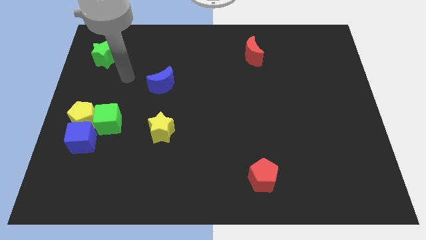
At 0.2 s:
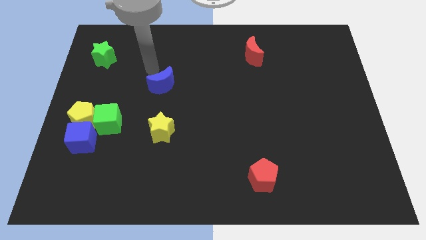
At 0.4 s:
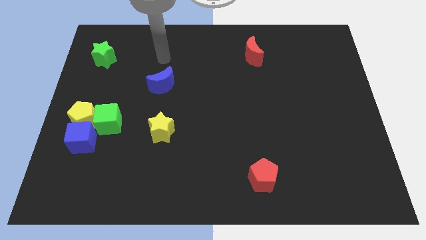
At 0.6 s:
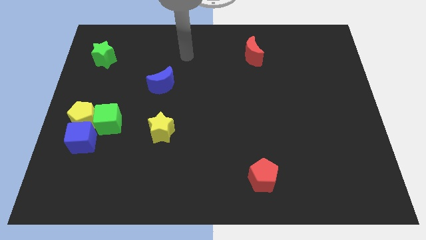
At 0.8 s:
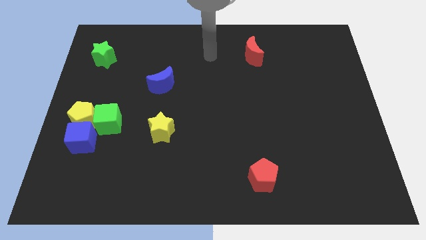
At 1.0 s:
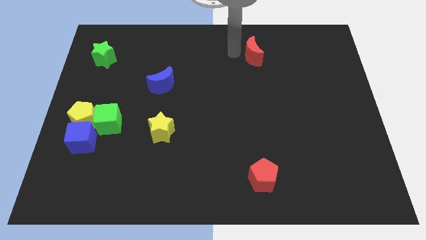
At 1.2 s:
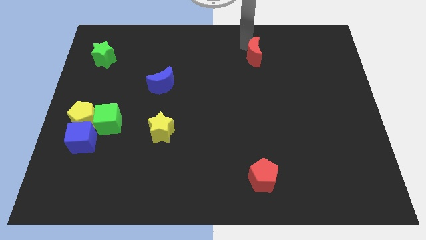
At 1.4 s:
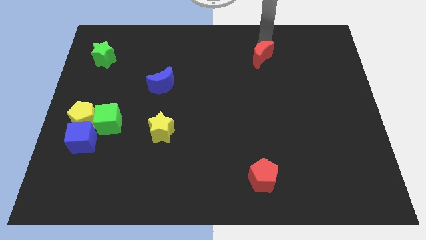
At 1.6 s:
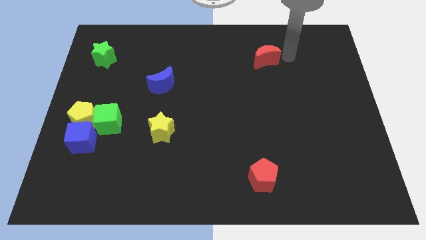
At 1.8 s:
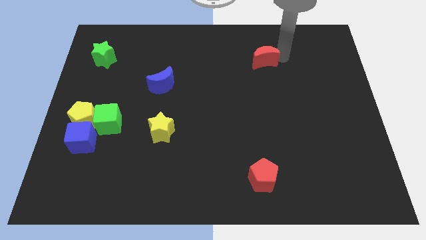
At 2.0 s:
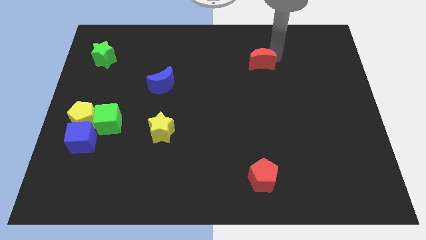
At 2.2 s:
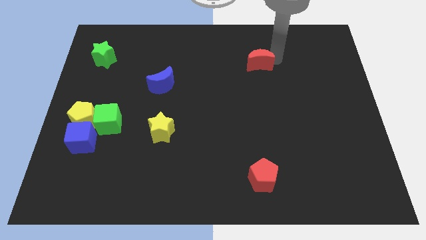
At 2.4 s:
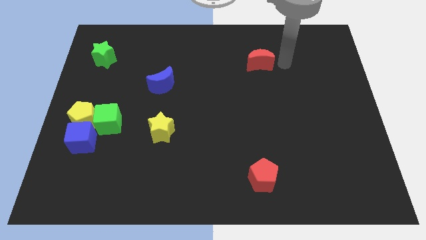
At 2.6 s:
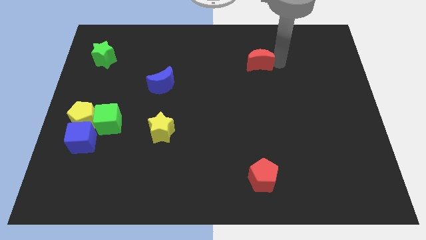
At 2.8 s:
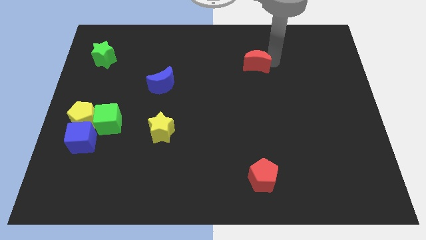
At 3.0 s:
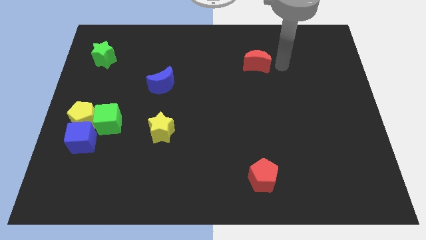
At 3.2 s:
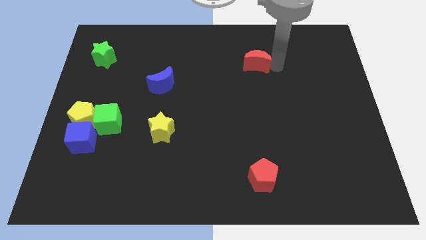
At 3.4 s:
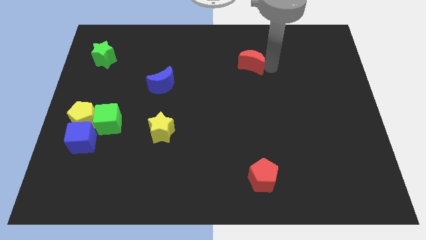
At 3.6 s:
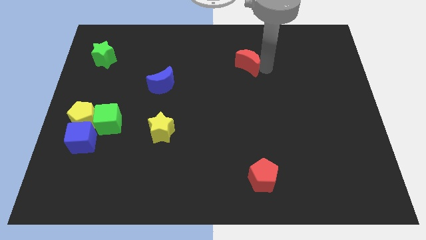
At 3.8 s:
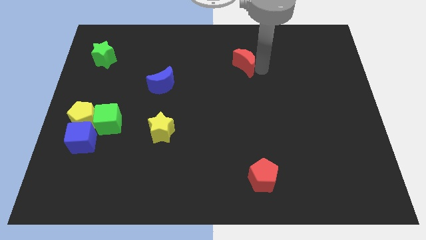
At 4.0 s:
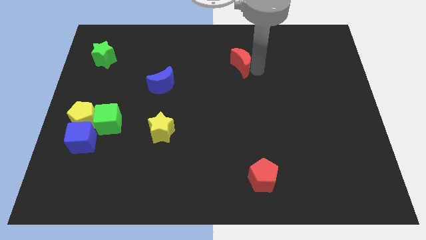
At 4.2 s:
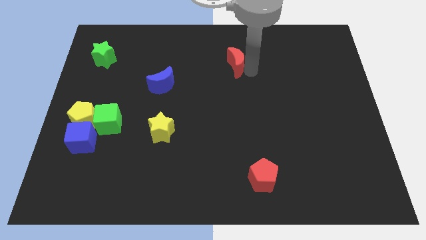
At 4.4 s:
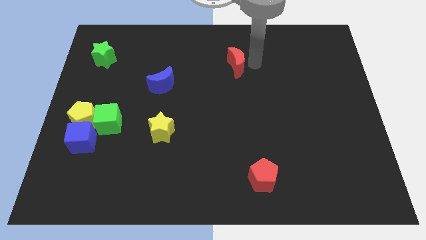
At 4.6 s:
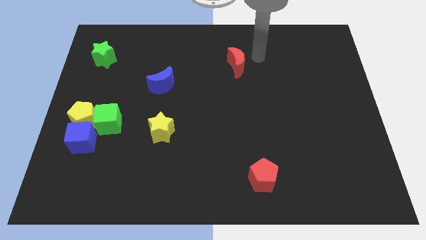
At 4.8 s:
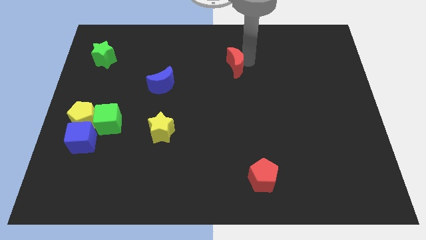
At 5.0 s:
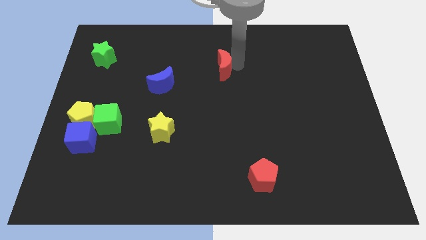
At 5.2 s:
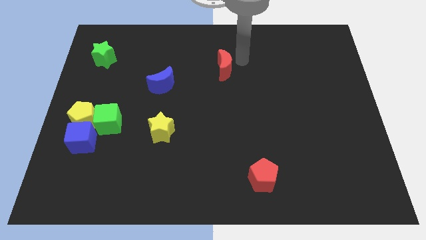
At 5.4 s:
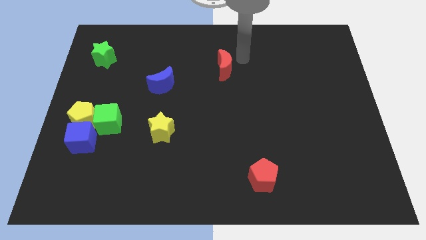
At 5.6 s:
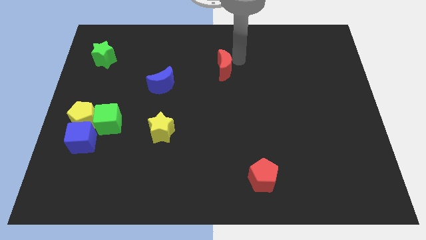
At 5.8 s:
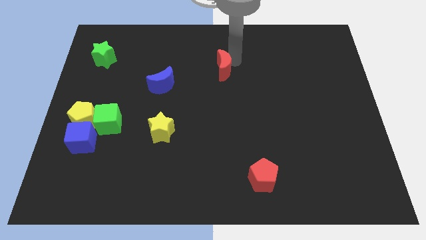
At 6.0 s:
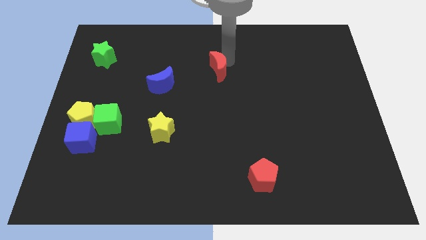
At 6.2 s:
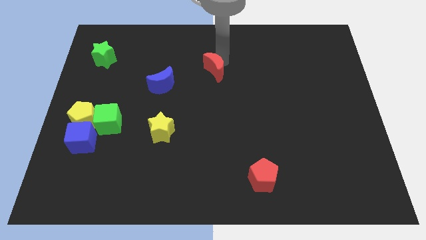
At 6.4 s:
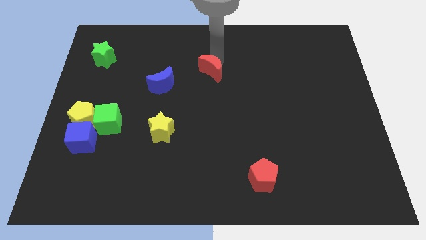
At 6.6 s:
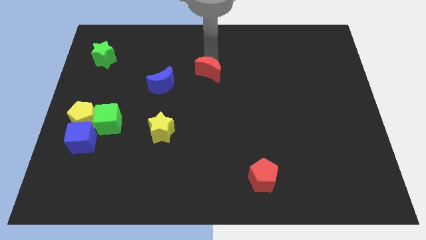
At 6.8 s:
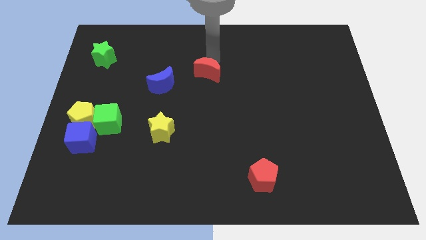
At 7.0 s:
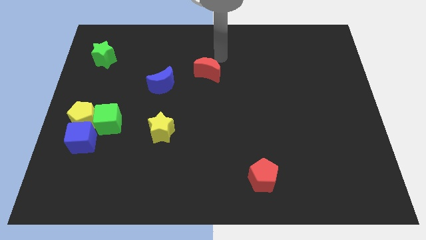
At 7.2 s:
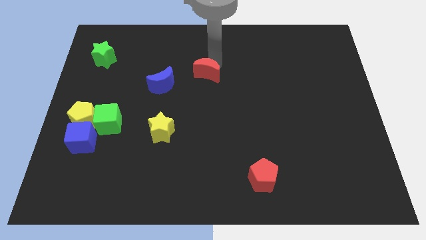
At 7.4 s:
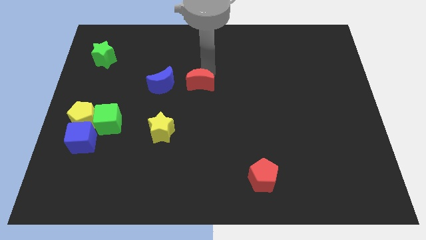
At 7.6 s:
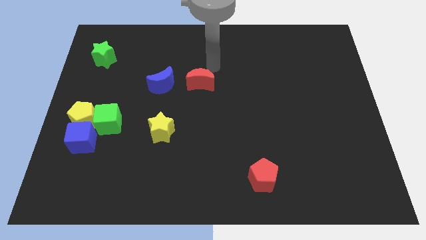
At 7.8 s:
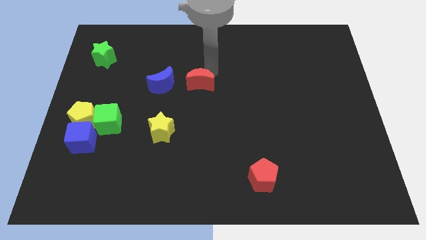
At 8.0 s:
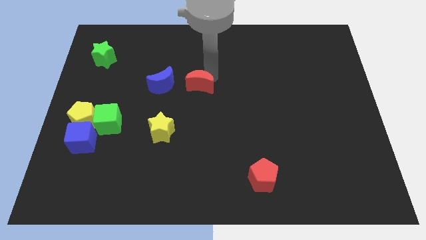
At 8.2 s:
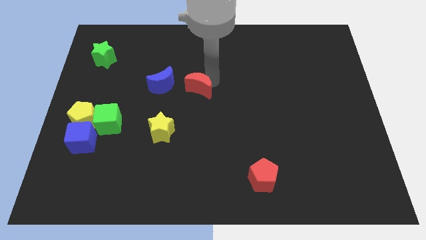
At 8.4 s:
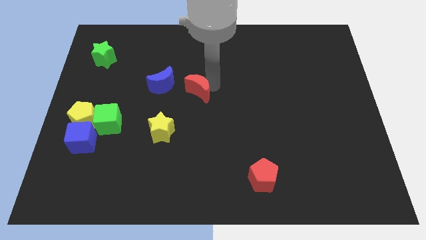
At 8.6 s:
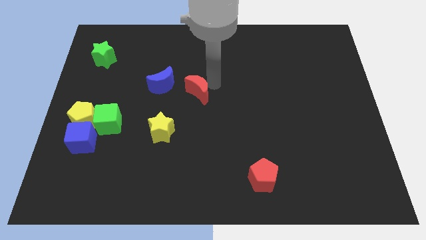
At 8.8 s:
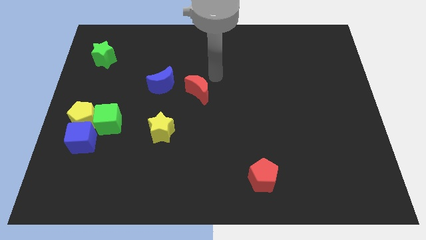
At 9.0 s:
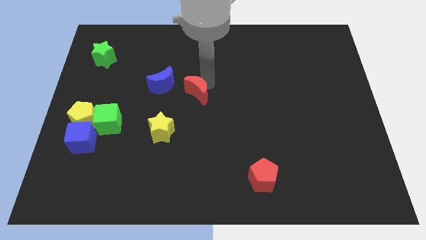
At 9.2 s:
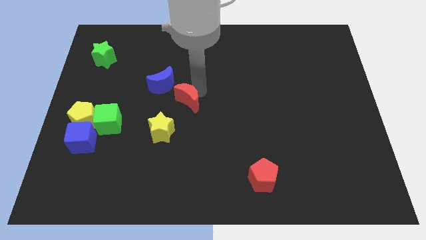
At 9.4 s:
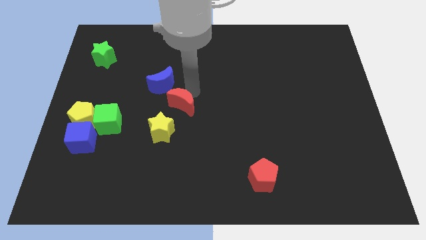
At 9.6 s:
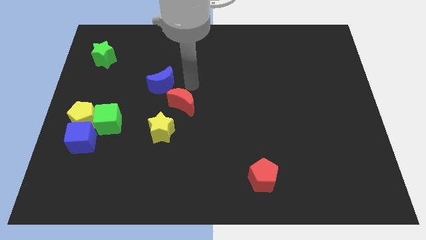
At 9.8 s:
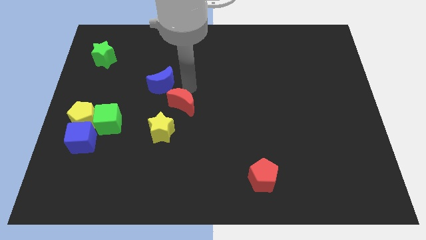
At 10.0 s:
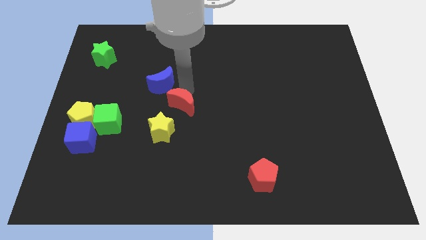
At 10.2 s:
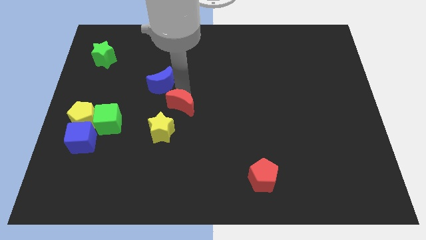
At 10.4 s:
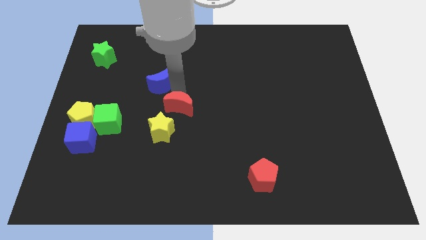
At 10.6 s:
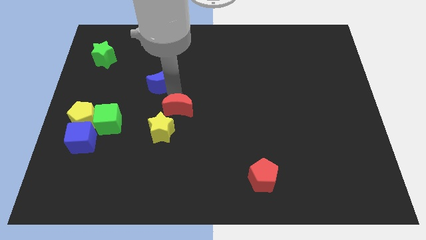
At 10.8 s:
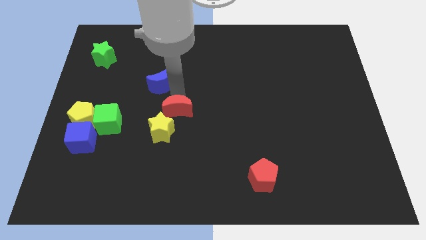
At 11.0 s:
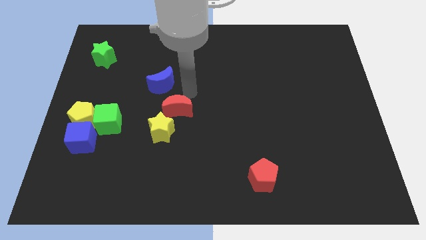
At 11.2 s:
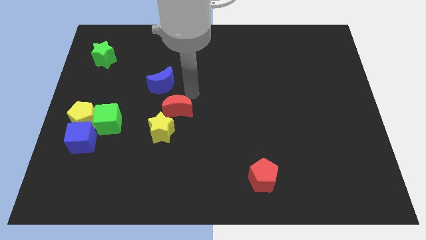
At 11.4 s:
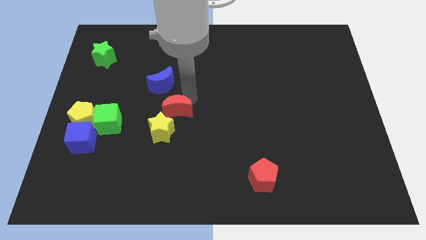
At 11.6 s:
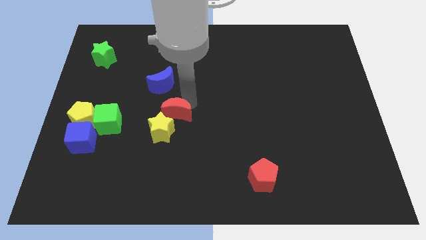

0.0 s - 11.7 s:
slide the red moon close to the yellow star

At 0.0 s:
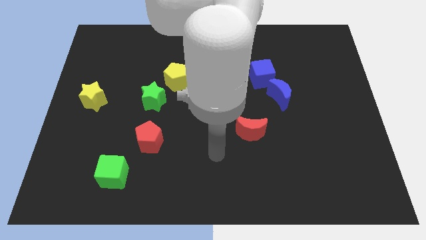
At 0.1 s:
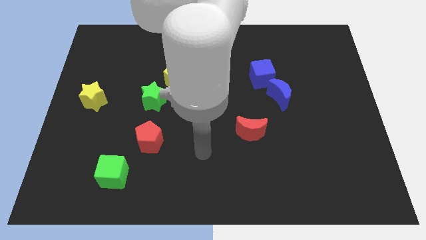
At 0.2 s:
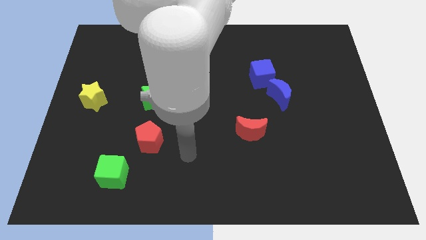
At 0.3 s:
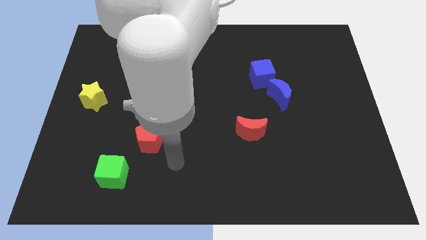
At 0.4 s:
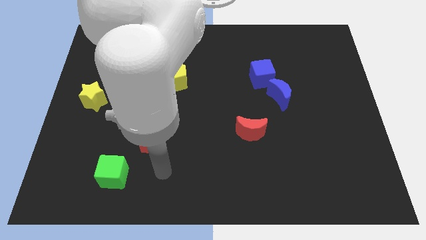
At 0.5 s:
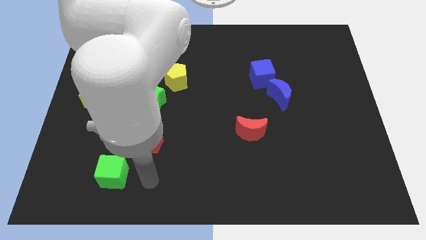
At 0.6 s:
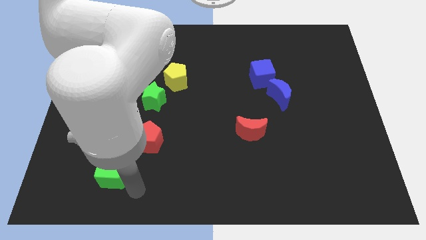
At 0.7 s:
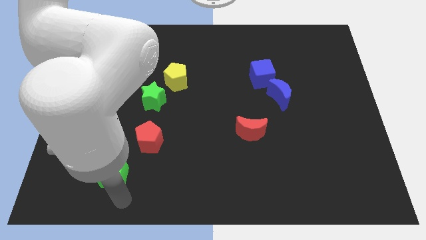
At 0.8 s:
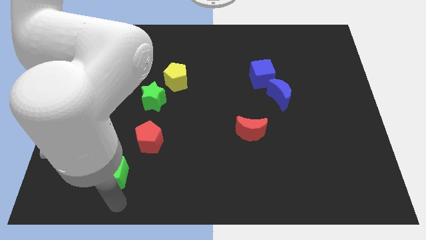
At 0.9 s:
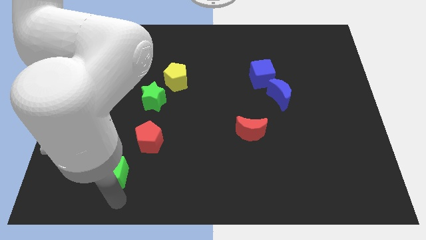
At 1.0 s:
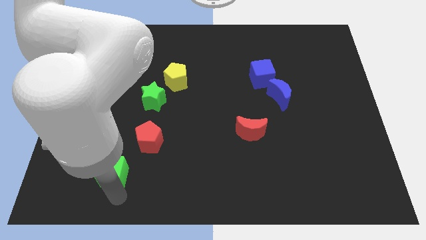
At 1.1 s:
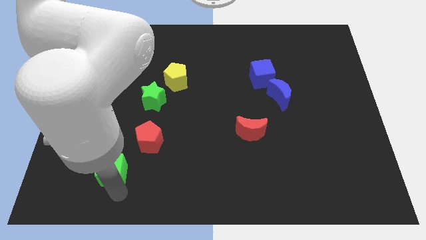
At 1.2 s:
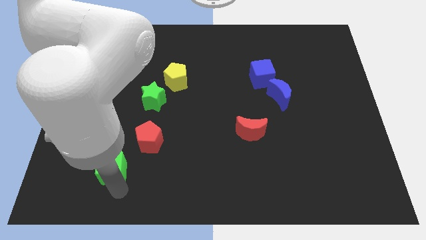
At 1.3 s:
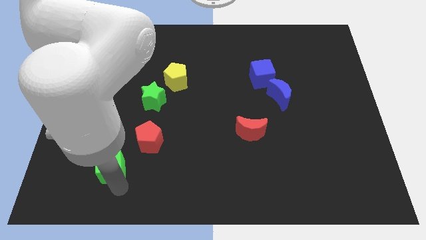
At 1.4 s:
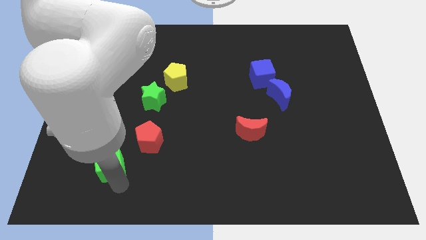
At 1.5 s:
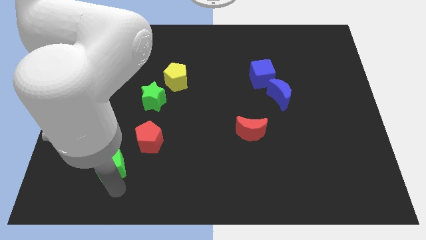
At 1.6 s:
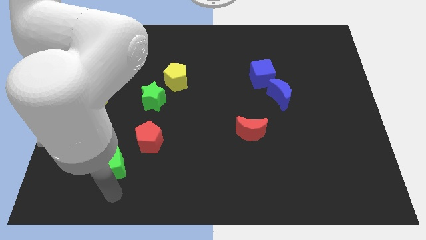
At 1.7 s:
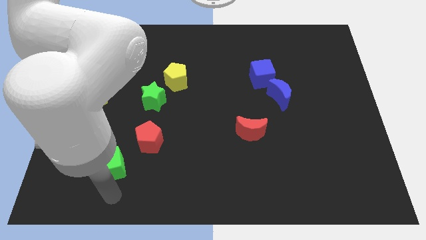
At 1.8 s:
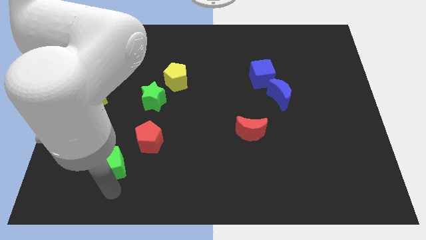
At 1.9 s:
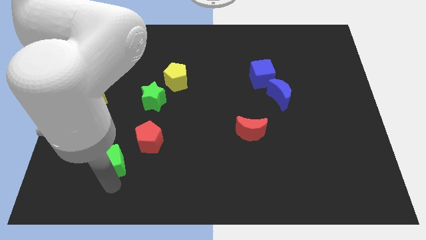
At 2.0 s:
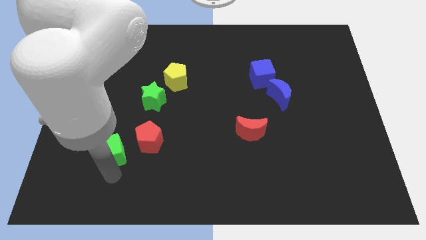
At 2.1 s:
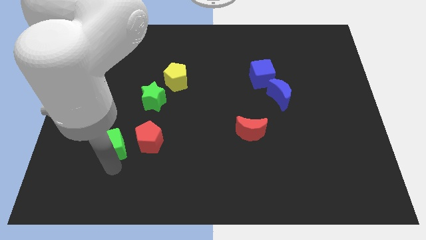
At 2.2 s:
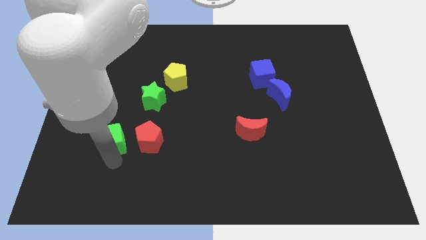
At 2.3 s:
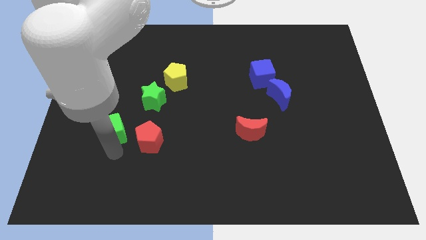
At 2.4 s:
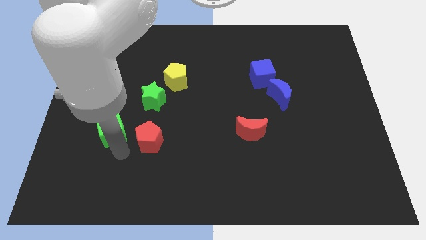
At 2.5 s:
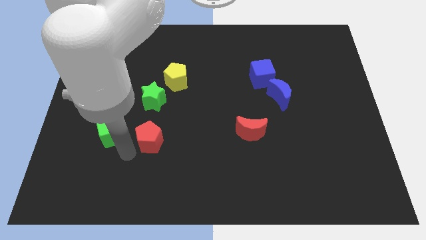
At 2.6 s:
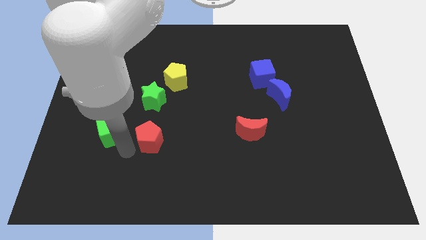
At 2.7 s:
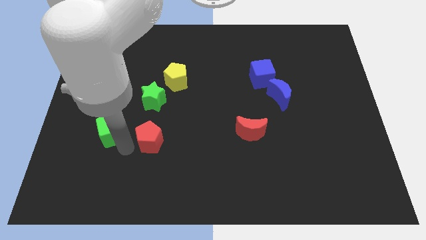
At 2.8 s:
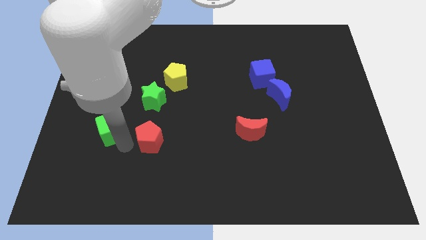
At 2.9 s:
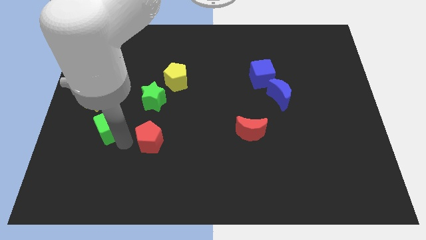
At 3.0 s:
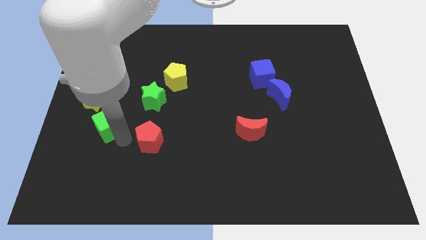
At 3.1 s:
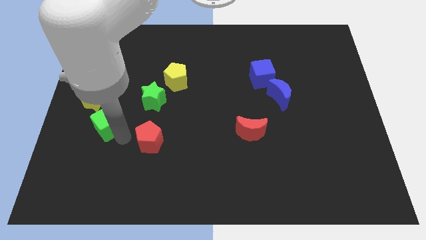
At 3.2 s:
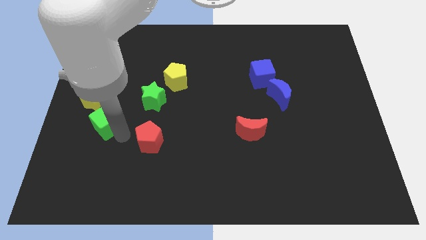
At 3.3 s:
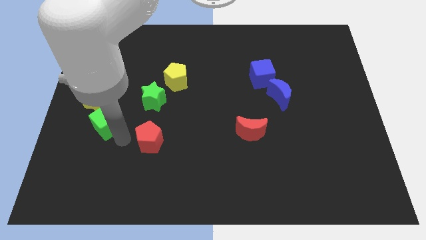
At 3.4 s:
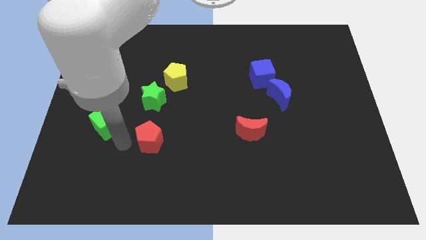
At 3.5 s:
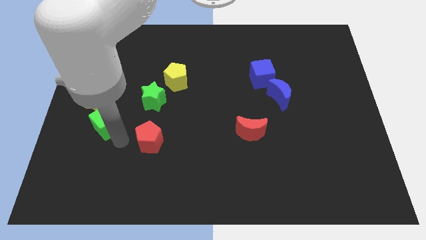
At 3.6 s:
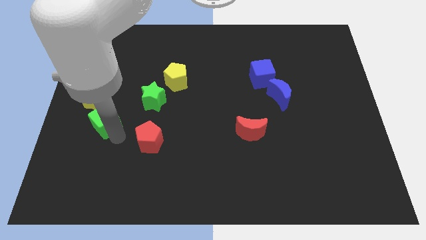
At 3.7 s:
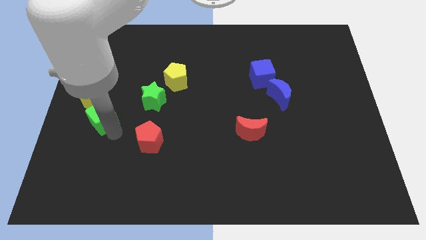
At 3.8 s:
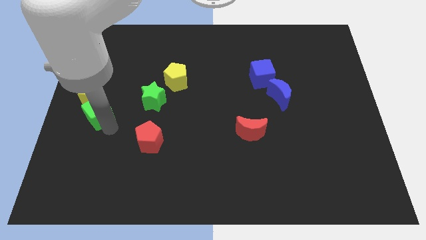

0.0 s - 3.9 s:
push the green cube towards the yellow star
